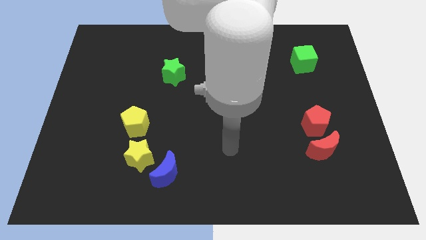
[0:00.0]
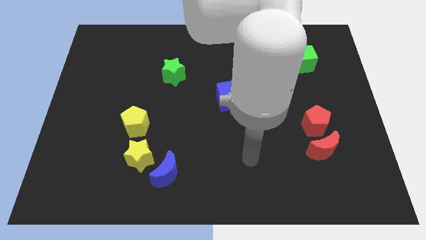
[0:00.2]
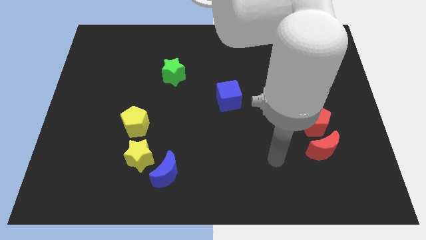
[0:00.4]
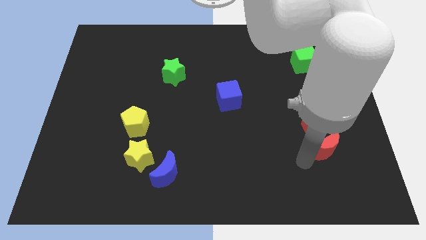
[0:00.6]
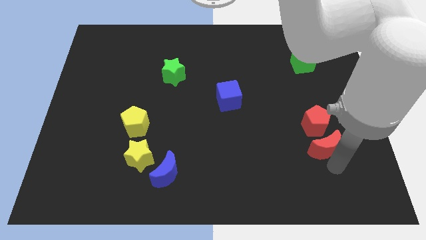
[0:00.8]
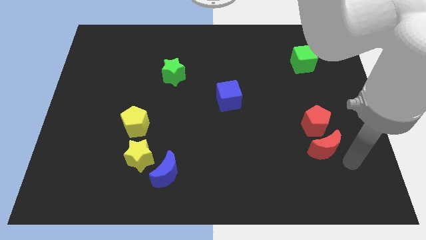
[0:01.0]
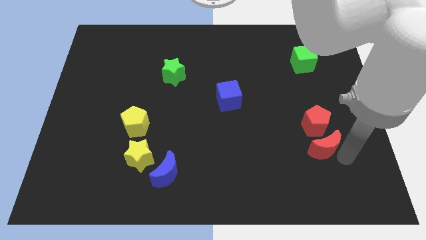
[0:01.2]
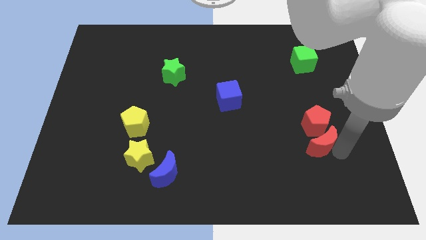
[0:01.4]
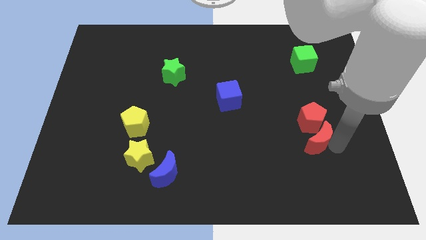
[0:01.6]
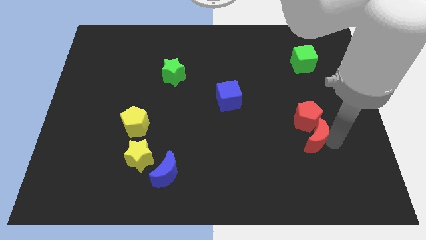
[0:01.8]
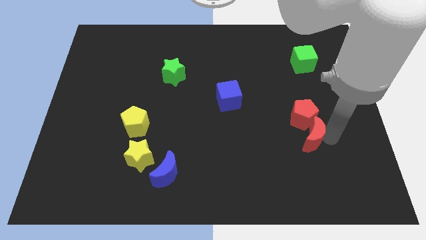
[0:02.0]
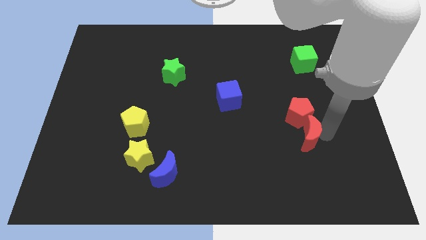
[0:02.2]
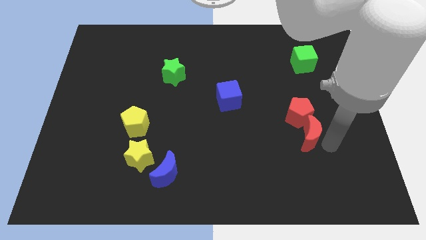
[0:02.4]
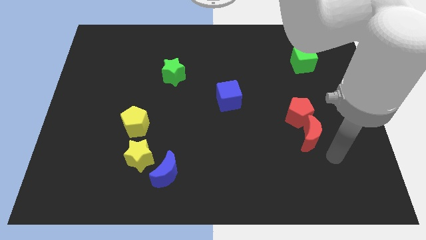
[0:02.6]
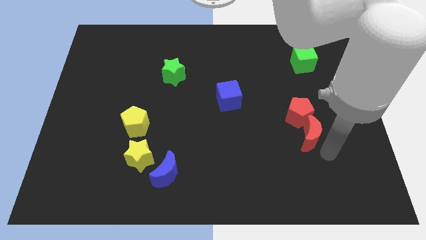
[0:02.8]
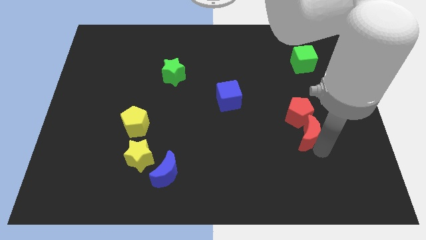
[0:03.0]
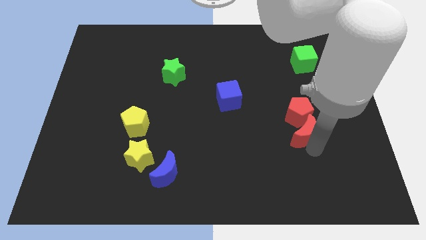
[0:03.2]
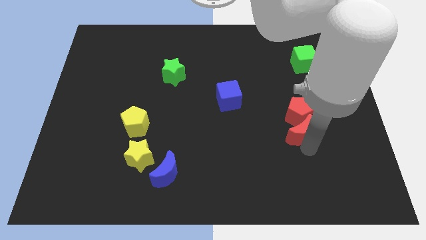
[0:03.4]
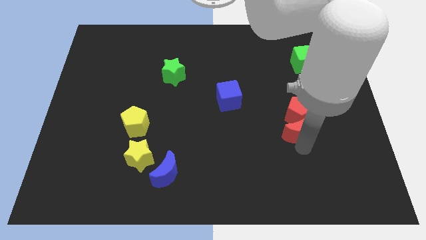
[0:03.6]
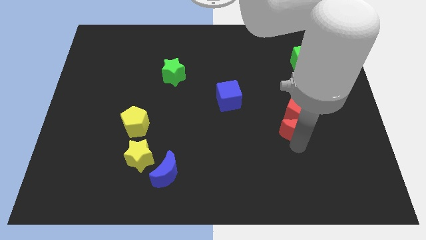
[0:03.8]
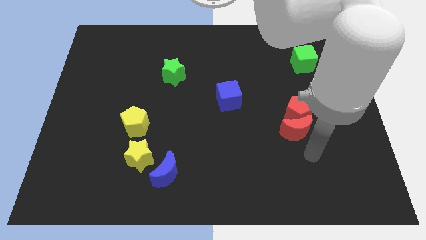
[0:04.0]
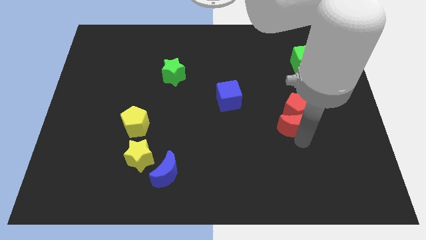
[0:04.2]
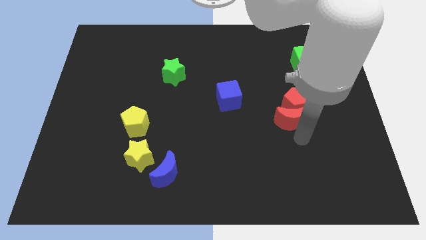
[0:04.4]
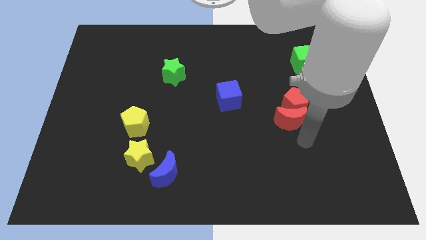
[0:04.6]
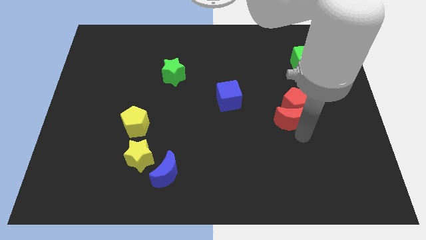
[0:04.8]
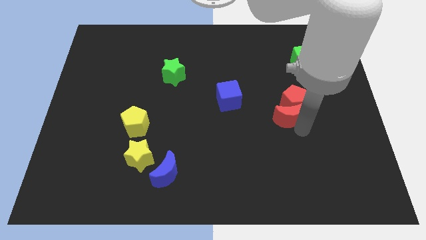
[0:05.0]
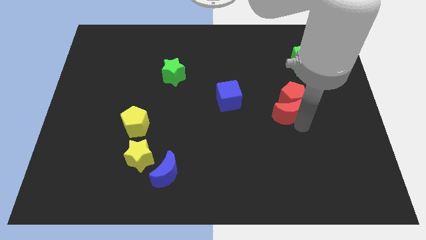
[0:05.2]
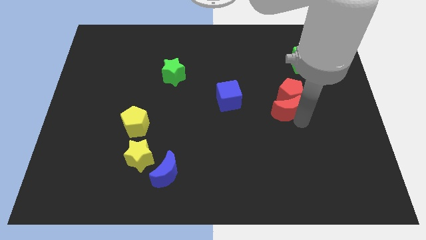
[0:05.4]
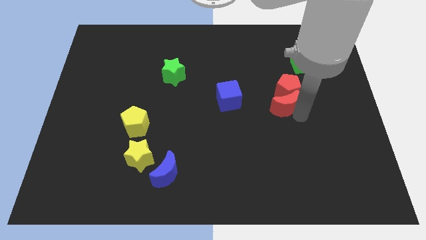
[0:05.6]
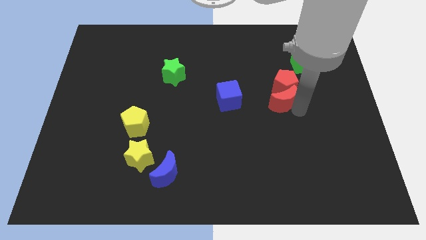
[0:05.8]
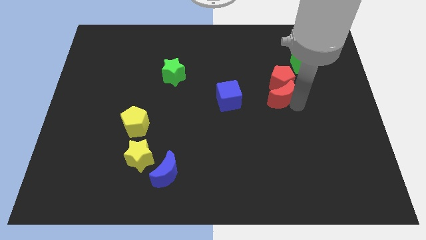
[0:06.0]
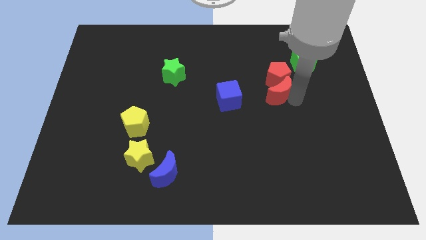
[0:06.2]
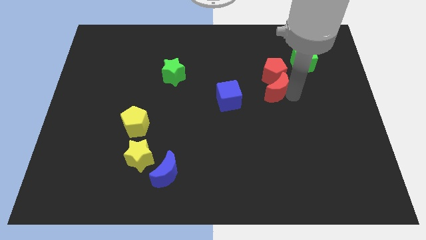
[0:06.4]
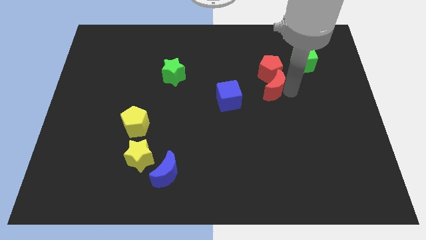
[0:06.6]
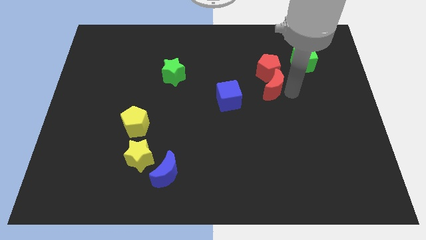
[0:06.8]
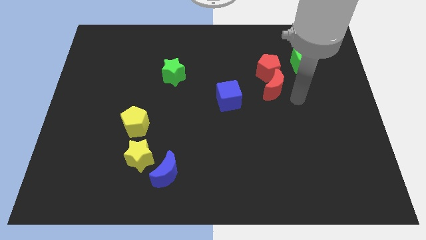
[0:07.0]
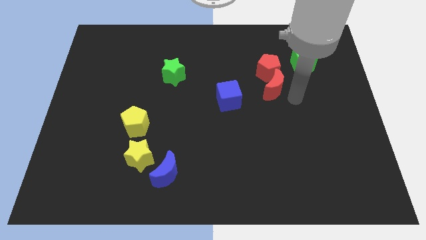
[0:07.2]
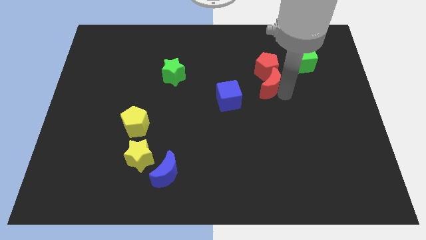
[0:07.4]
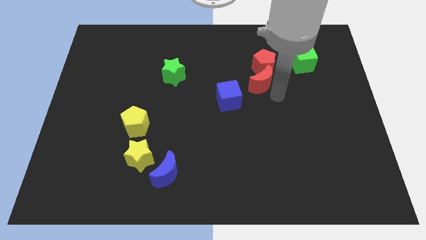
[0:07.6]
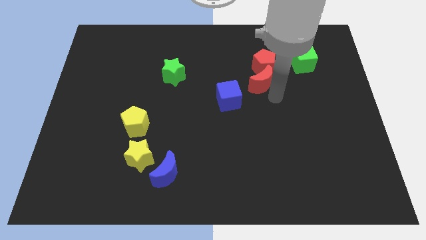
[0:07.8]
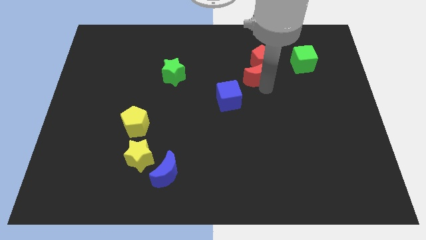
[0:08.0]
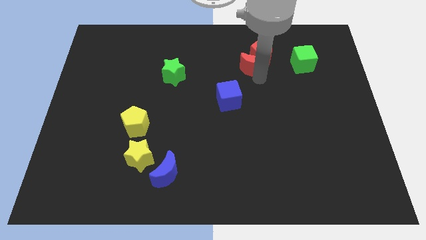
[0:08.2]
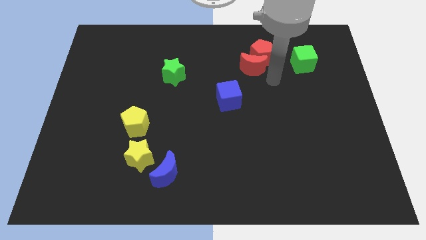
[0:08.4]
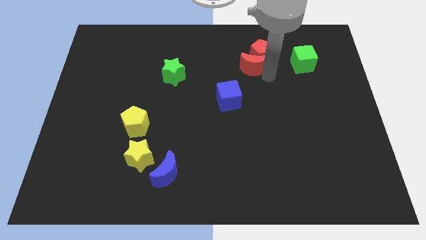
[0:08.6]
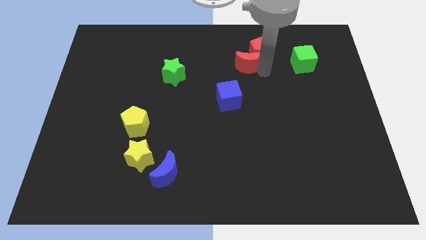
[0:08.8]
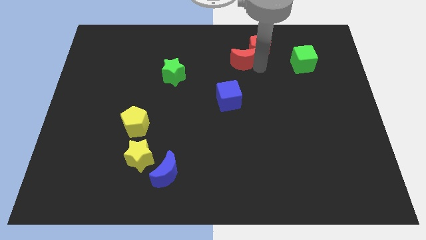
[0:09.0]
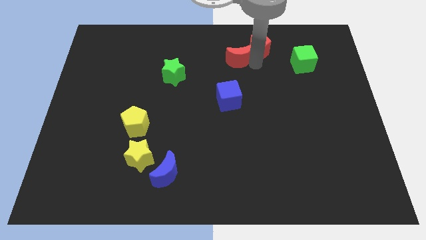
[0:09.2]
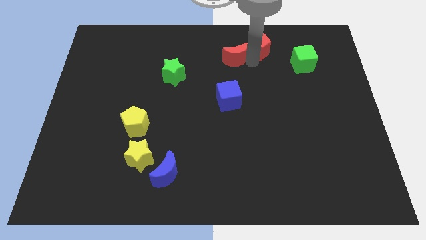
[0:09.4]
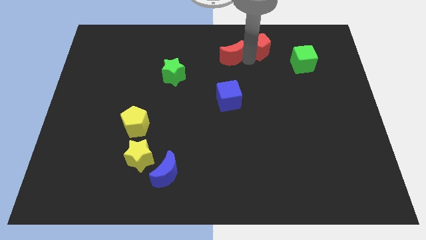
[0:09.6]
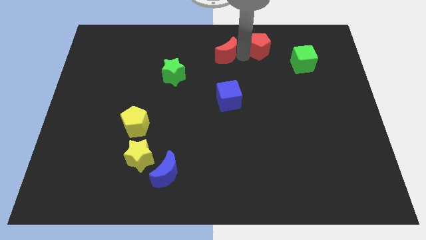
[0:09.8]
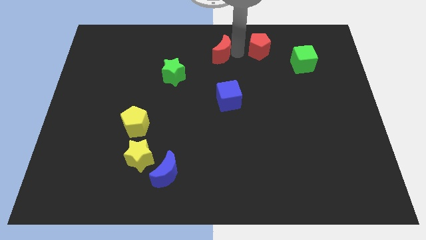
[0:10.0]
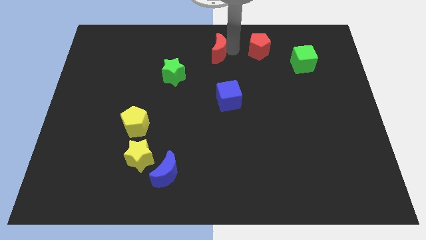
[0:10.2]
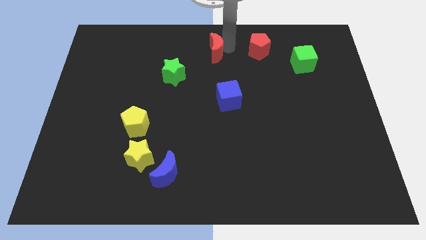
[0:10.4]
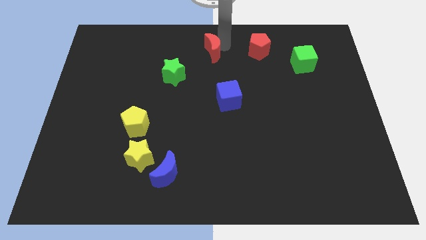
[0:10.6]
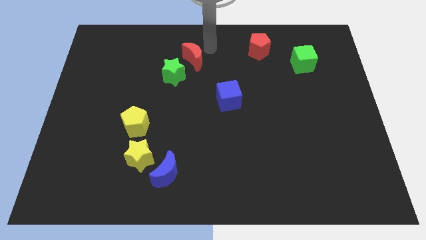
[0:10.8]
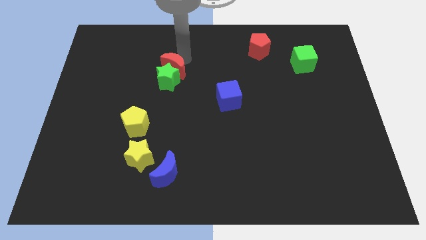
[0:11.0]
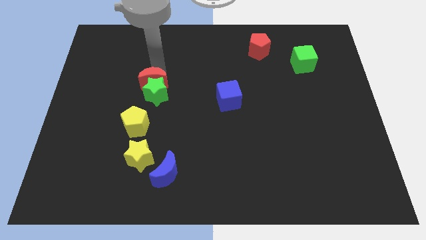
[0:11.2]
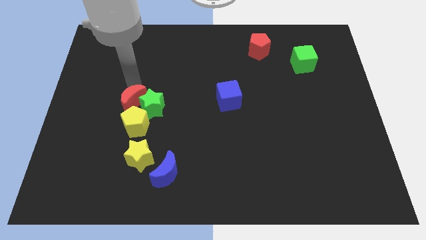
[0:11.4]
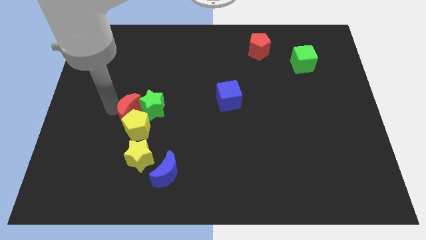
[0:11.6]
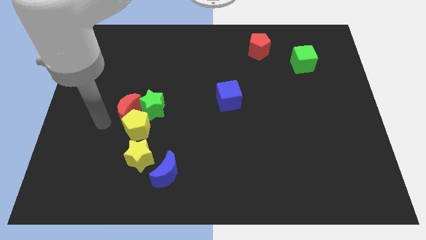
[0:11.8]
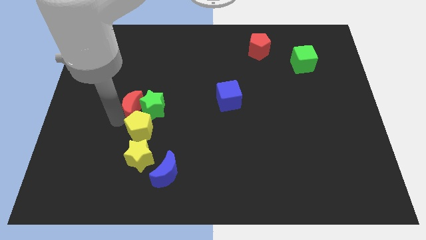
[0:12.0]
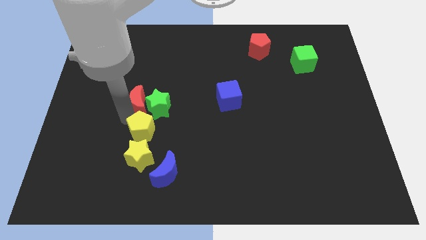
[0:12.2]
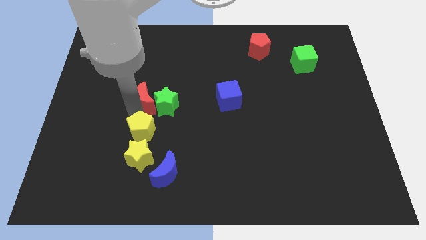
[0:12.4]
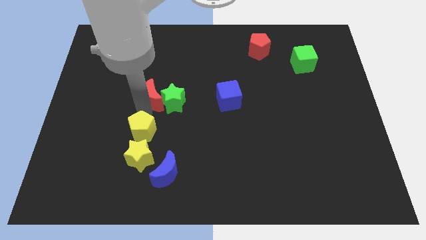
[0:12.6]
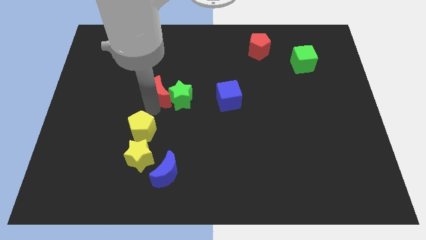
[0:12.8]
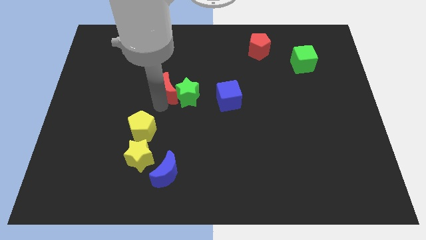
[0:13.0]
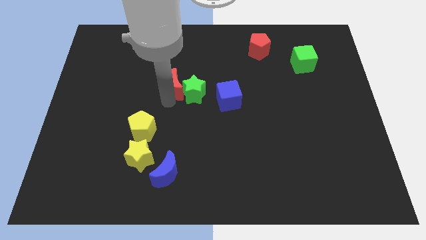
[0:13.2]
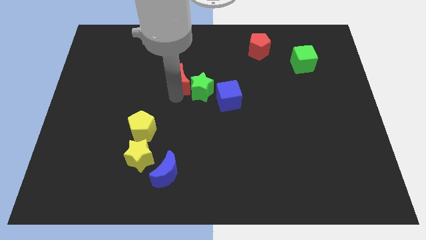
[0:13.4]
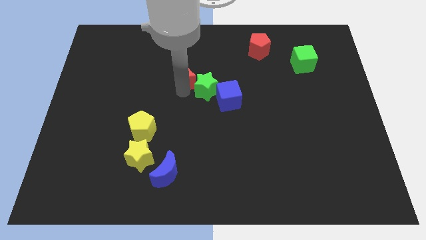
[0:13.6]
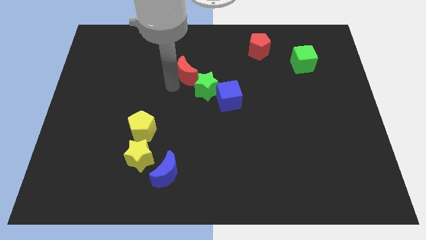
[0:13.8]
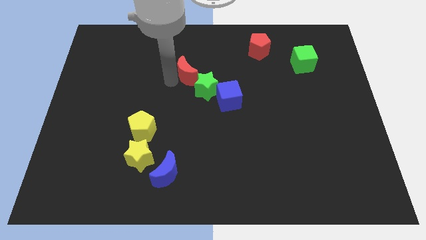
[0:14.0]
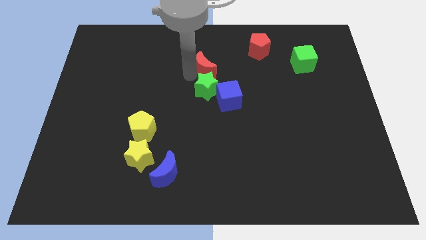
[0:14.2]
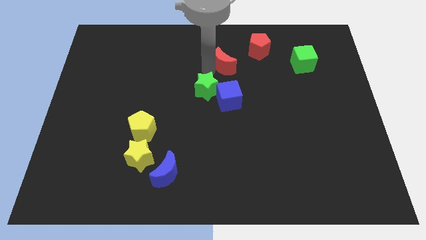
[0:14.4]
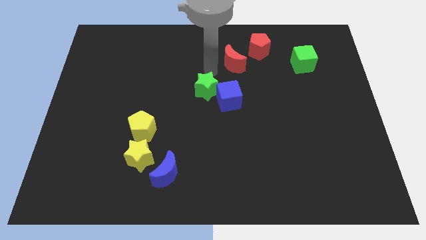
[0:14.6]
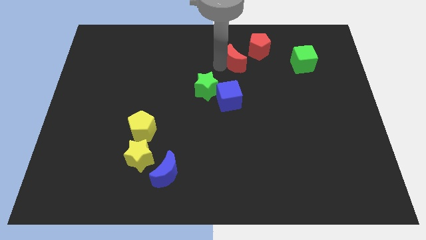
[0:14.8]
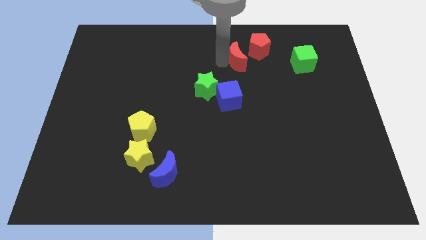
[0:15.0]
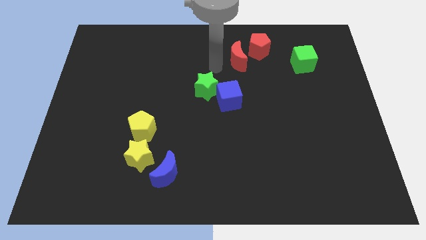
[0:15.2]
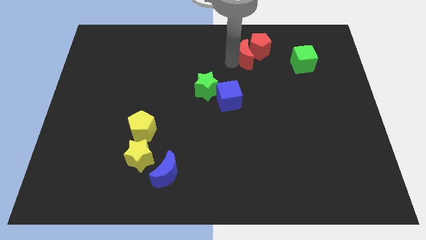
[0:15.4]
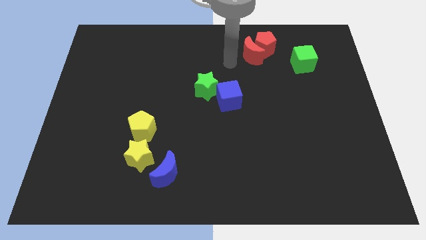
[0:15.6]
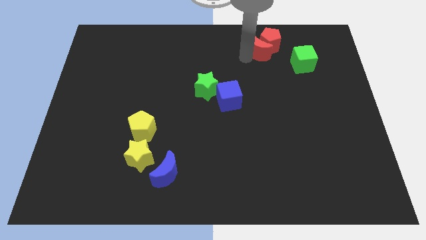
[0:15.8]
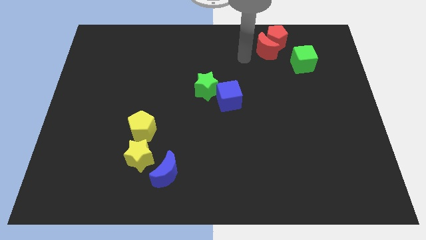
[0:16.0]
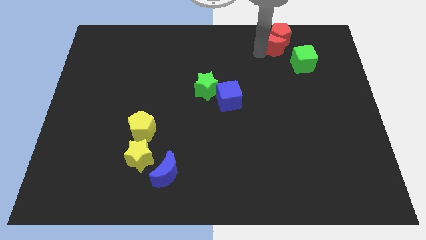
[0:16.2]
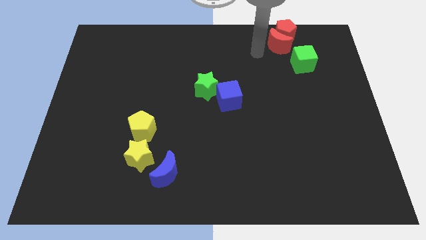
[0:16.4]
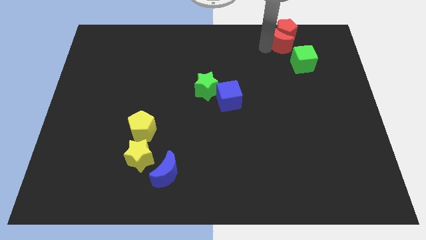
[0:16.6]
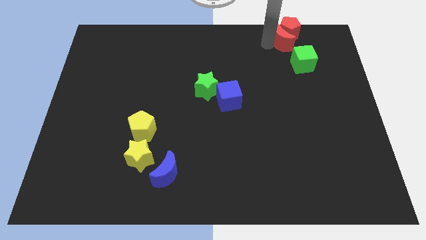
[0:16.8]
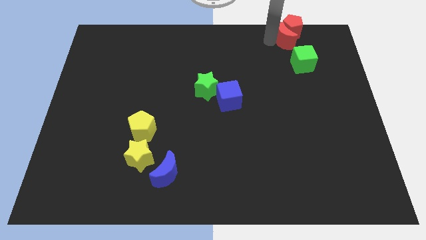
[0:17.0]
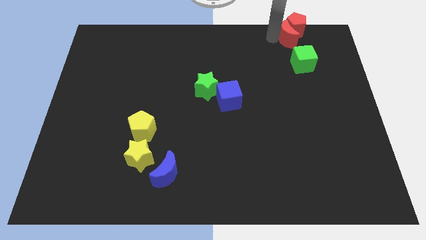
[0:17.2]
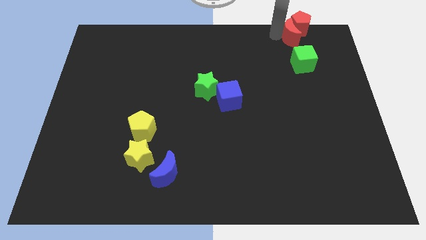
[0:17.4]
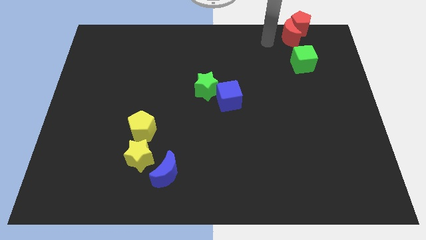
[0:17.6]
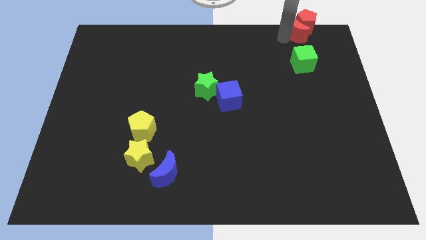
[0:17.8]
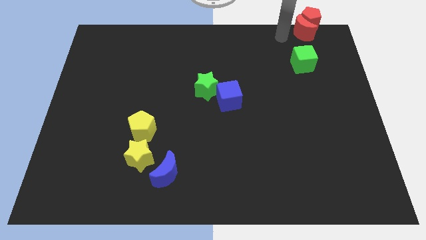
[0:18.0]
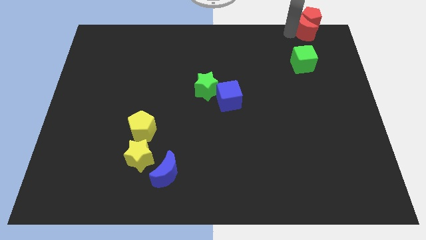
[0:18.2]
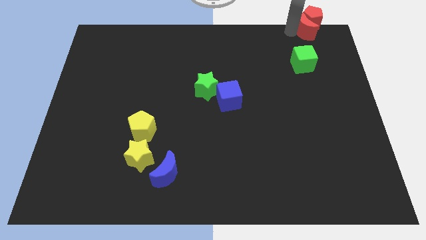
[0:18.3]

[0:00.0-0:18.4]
slide the red moon to the top right corner
